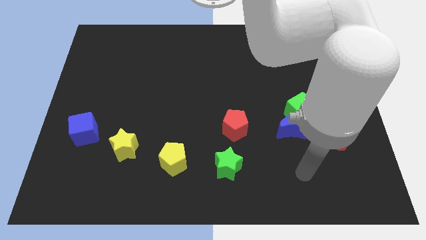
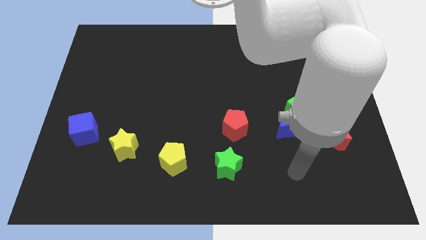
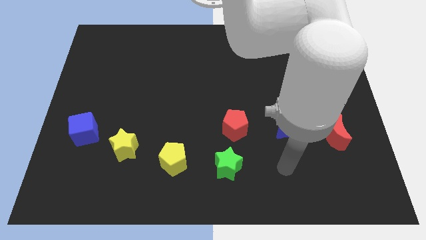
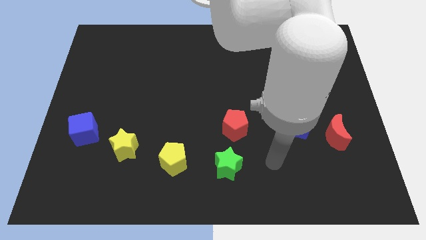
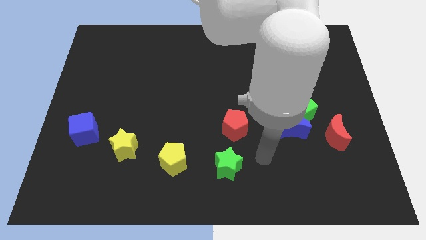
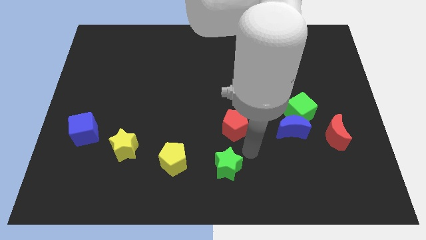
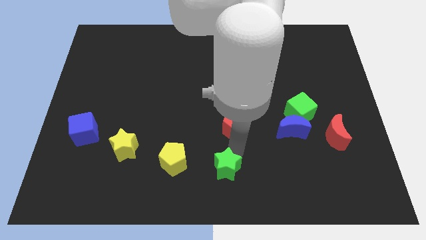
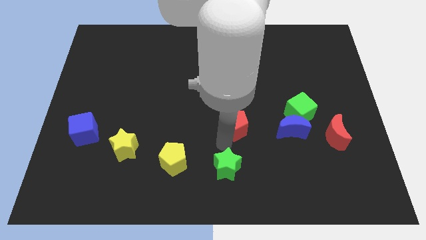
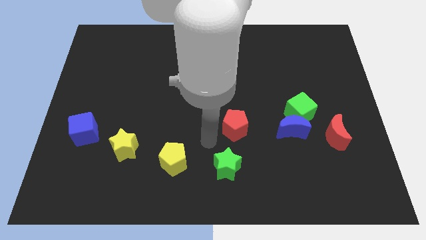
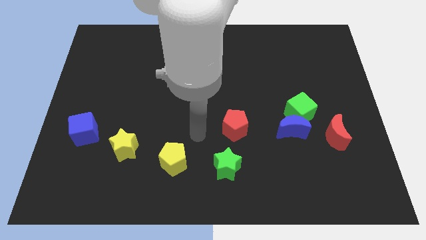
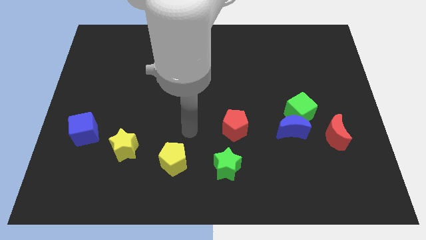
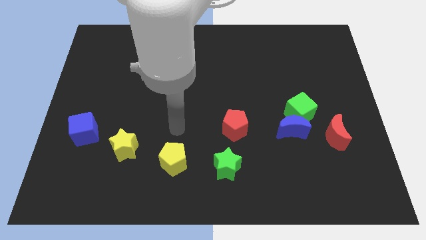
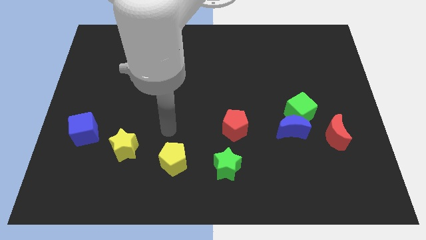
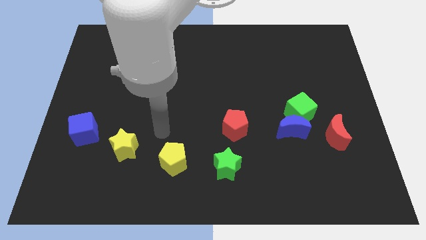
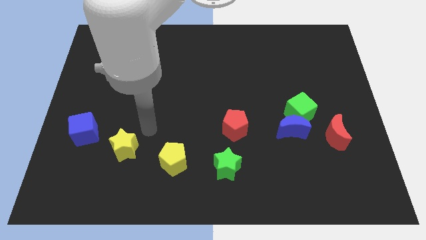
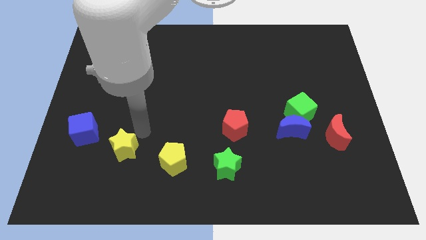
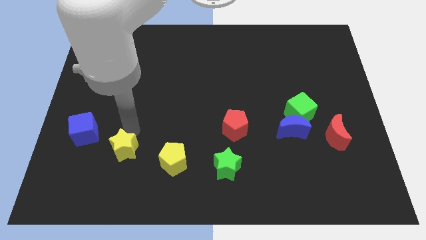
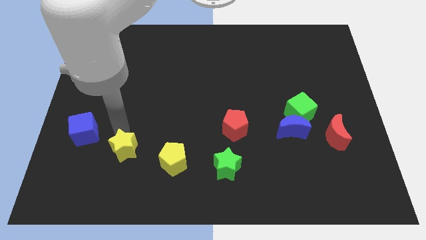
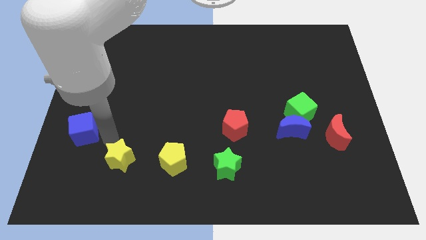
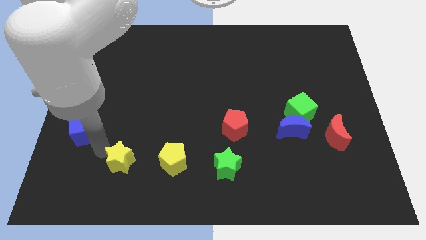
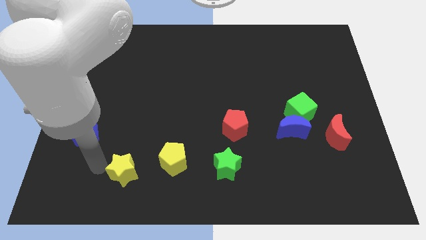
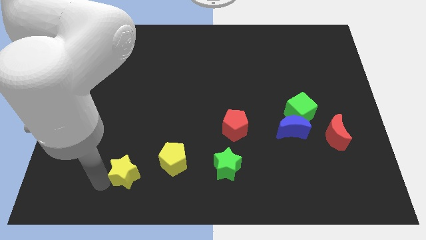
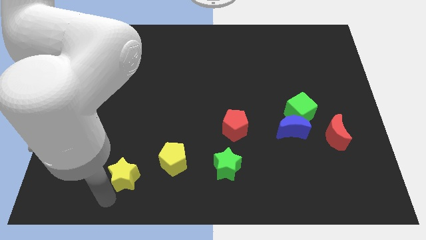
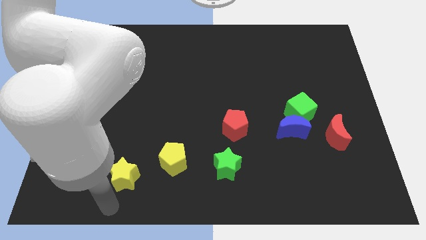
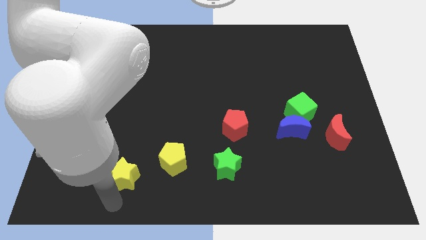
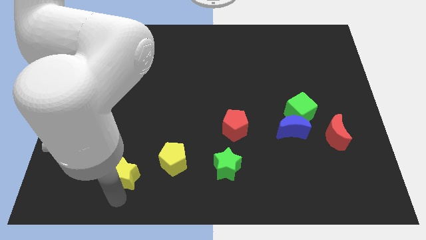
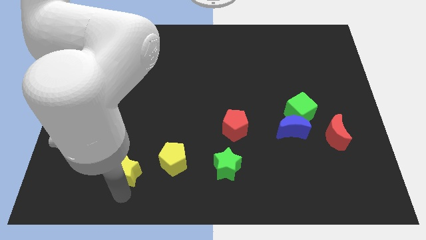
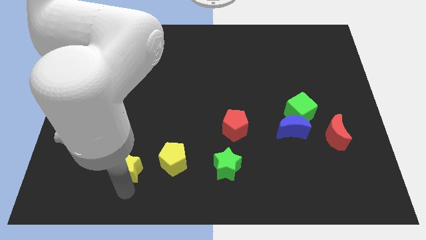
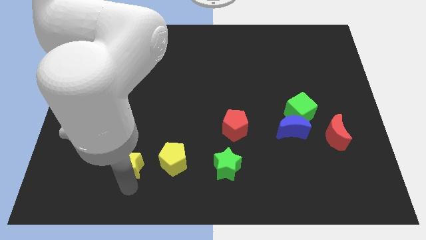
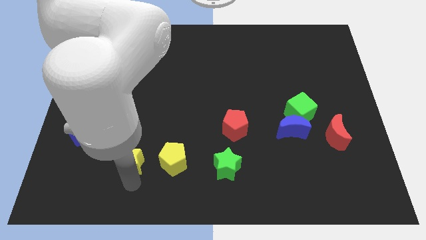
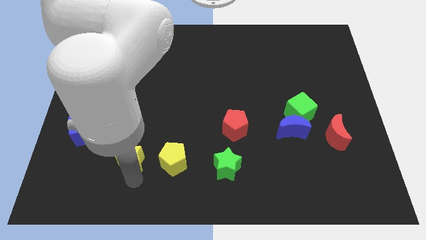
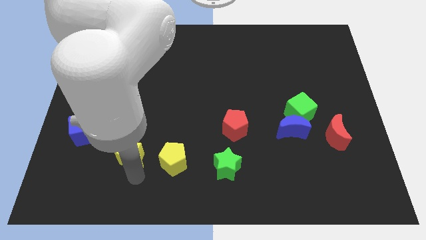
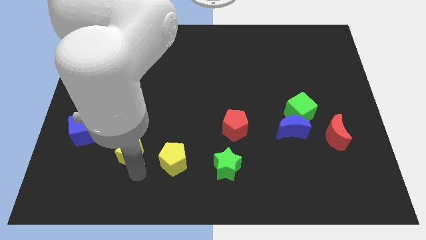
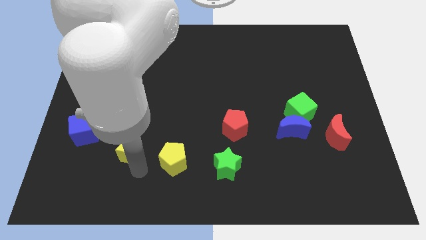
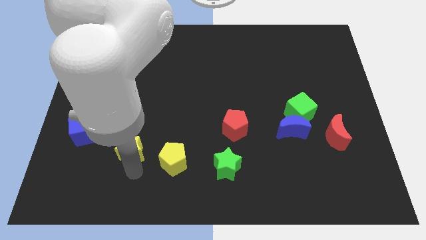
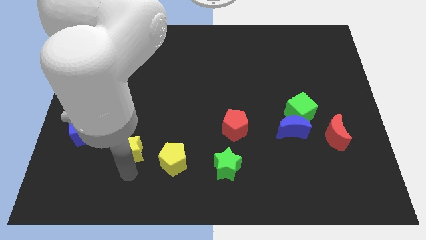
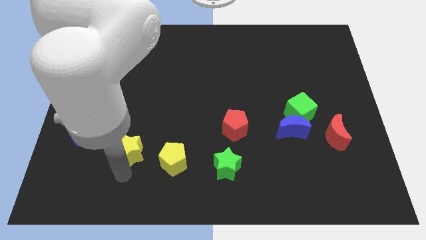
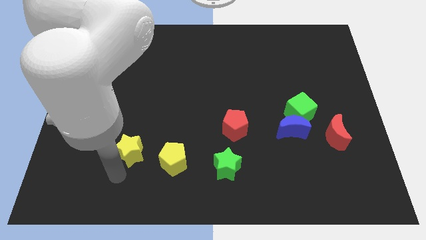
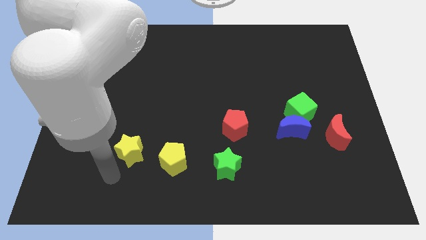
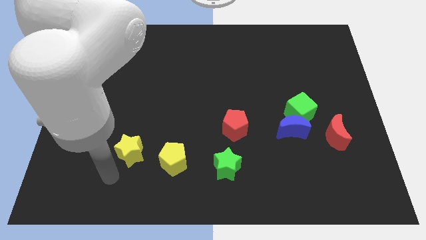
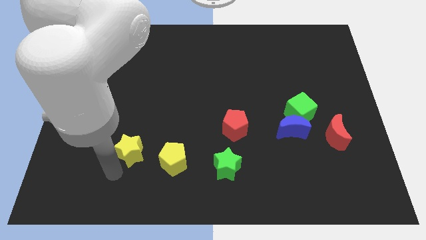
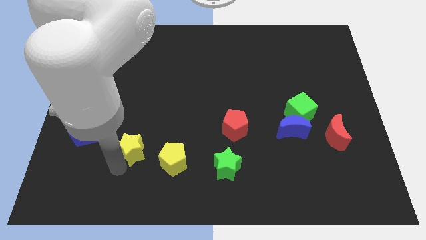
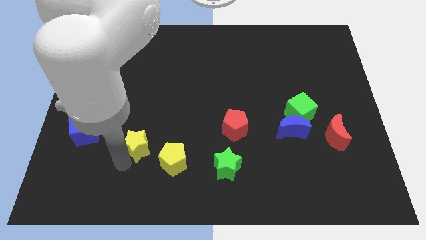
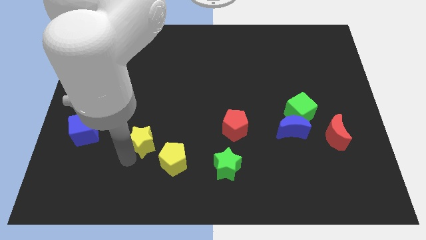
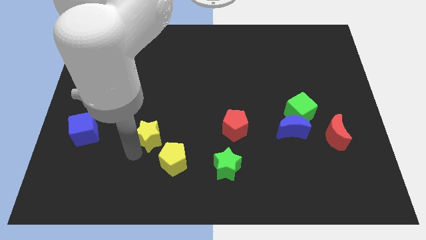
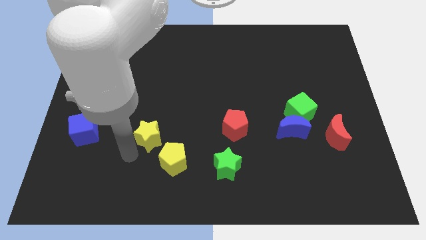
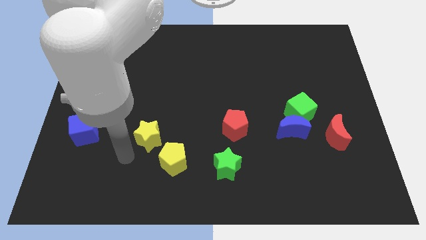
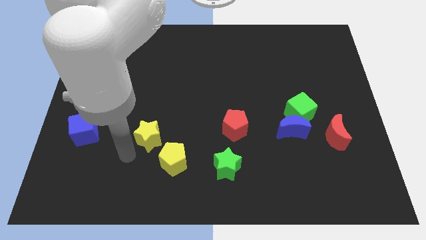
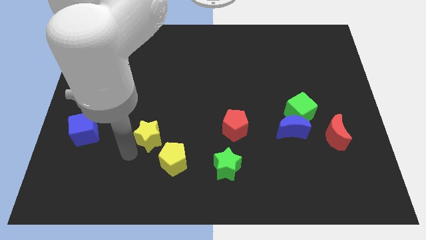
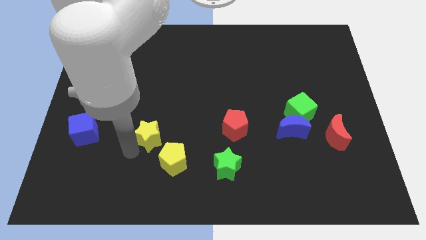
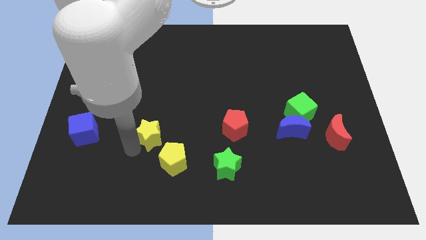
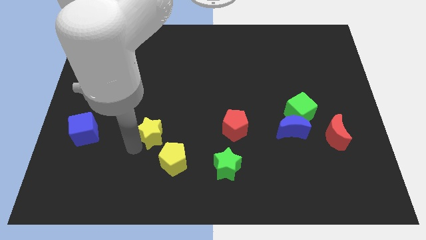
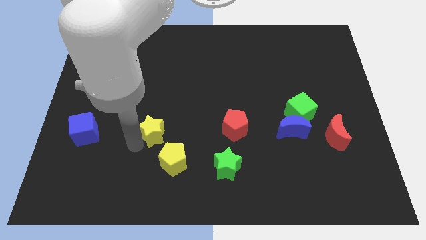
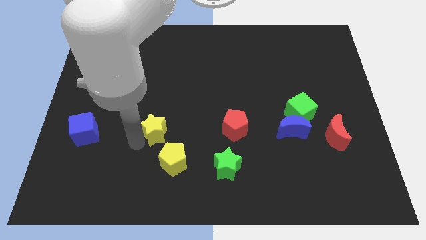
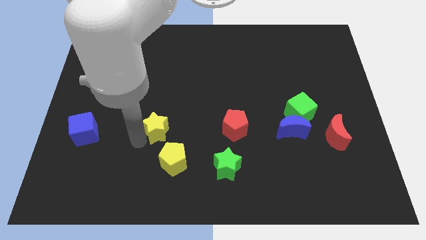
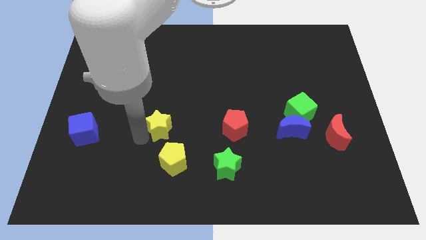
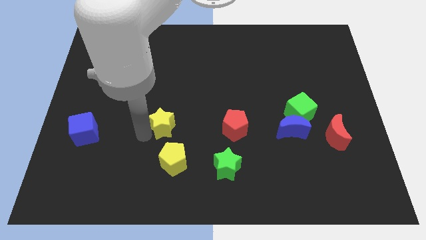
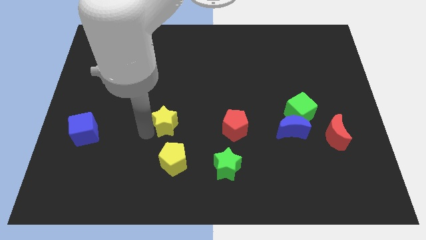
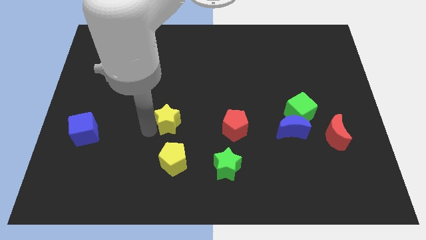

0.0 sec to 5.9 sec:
slide the yellow star to the middle of the board
